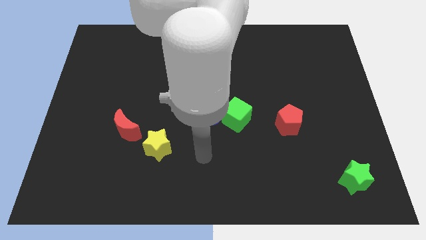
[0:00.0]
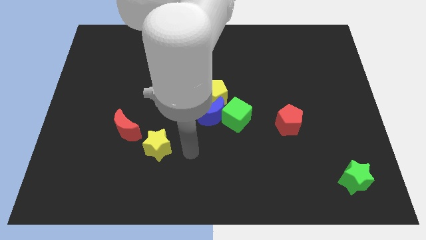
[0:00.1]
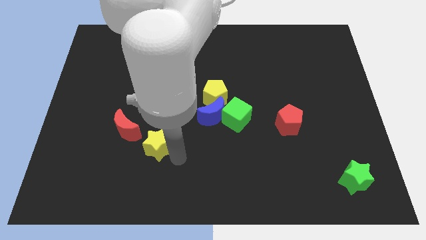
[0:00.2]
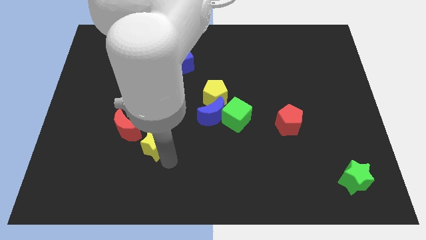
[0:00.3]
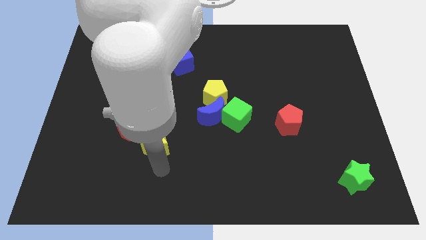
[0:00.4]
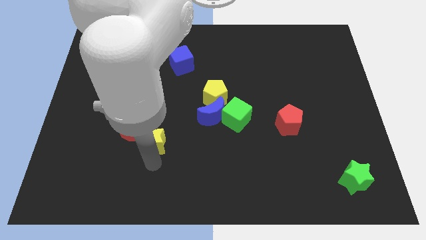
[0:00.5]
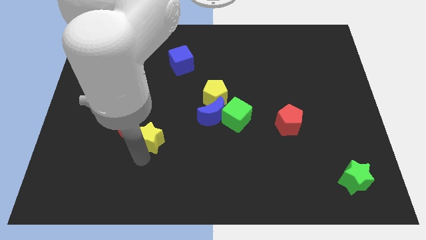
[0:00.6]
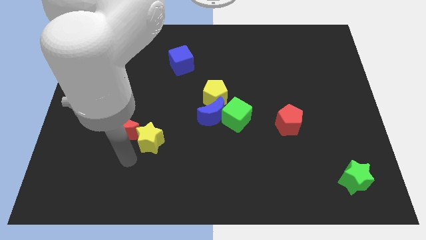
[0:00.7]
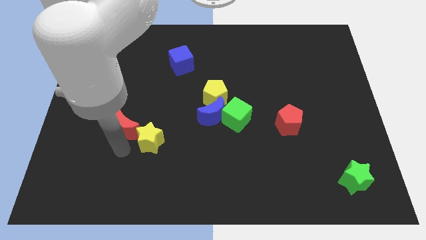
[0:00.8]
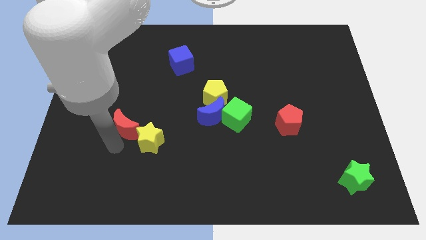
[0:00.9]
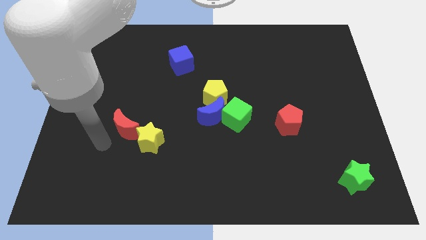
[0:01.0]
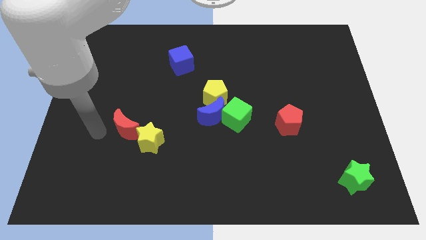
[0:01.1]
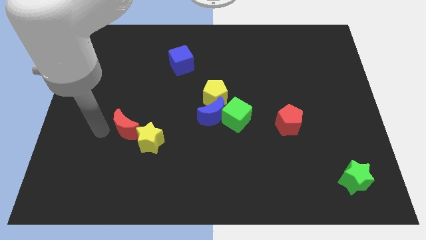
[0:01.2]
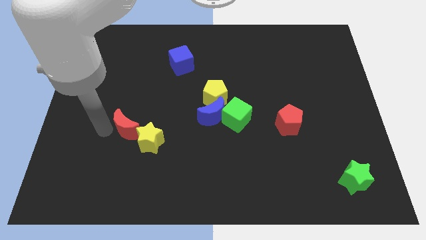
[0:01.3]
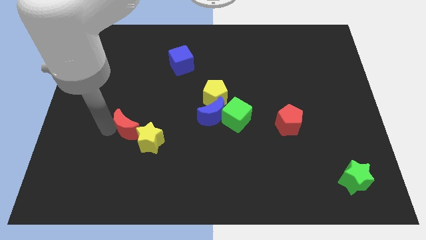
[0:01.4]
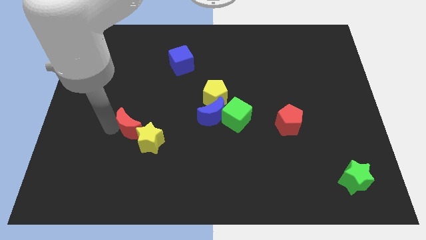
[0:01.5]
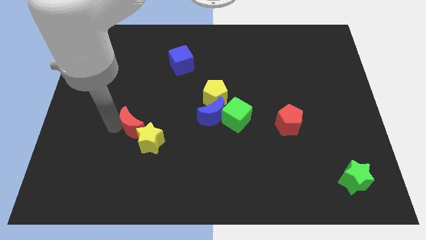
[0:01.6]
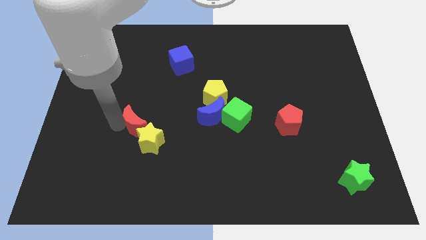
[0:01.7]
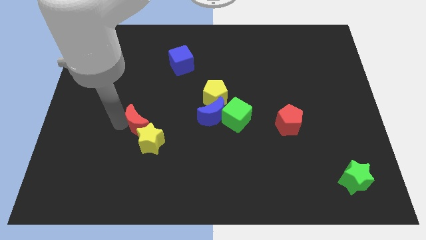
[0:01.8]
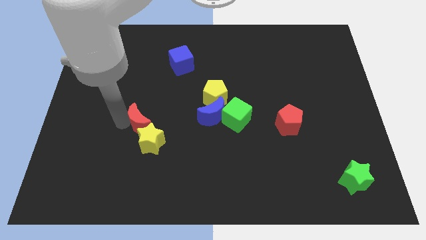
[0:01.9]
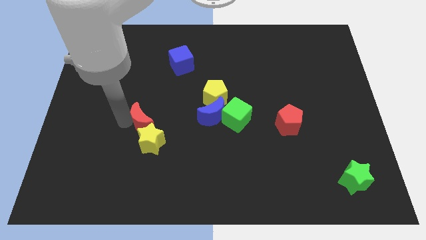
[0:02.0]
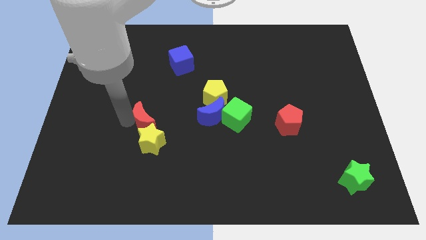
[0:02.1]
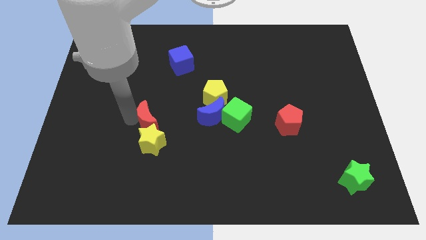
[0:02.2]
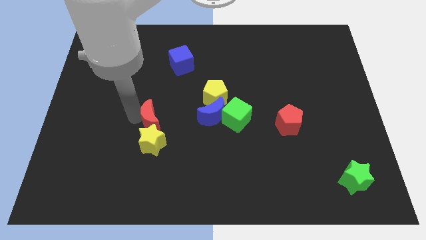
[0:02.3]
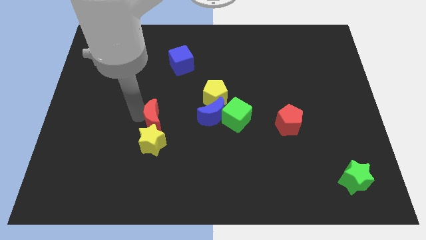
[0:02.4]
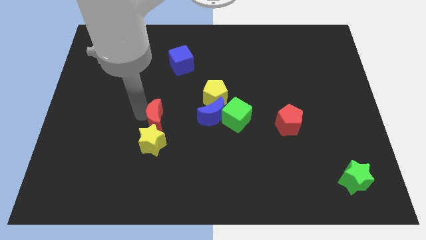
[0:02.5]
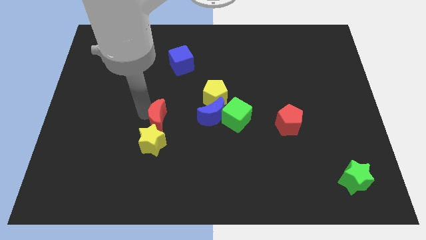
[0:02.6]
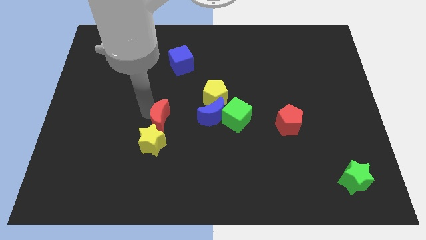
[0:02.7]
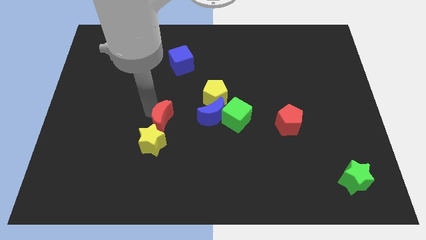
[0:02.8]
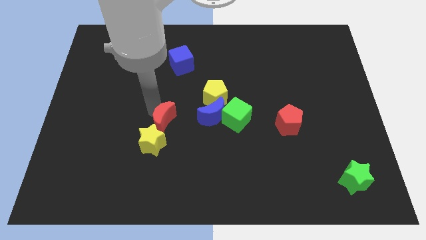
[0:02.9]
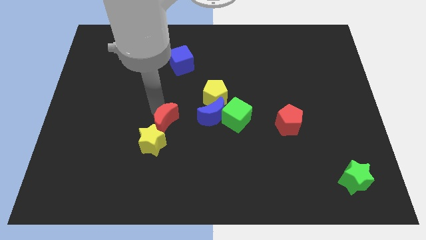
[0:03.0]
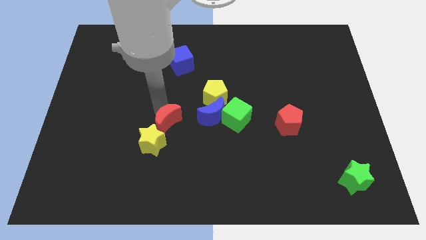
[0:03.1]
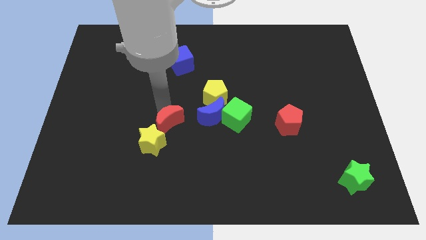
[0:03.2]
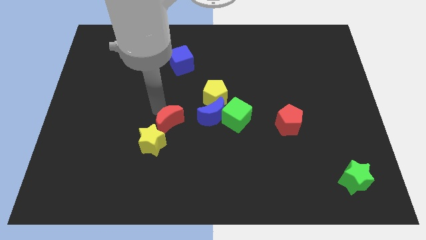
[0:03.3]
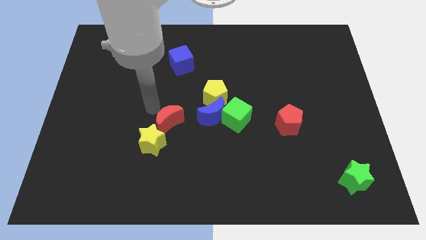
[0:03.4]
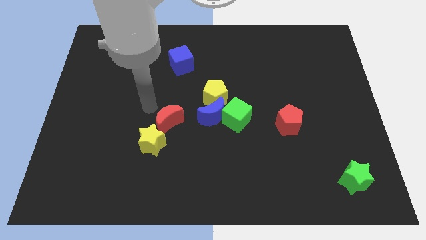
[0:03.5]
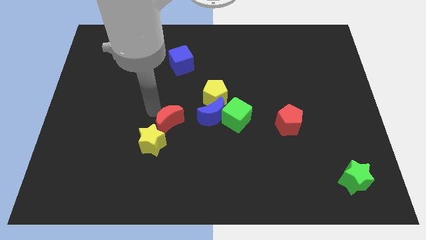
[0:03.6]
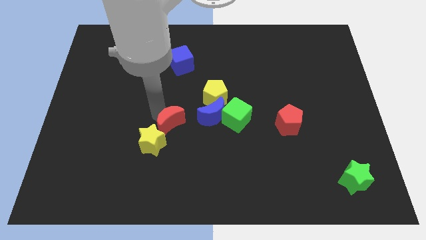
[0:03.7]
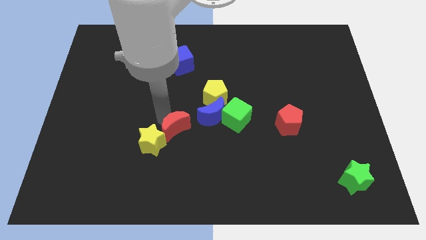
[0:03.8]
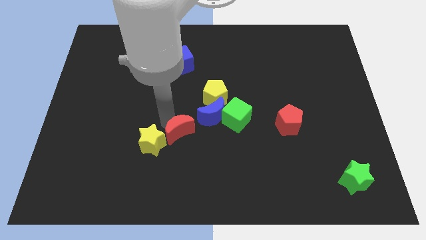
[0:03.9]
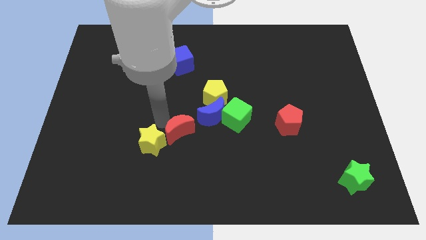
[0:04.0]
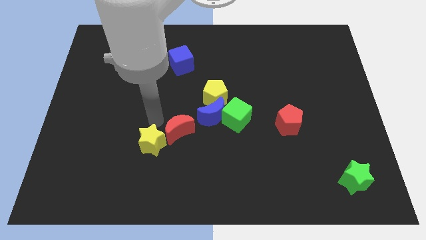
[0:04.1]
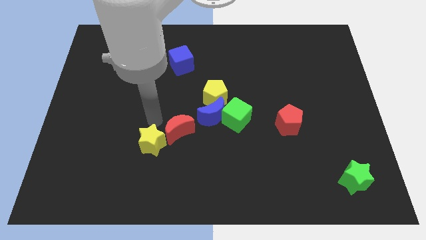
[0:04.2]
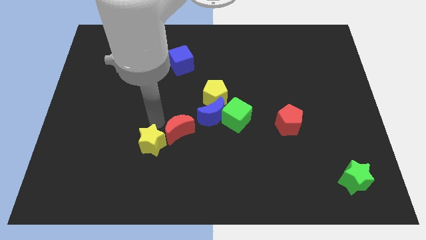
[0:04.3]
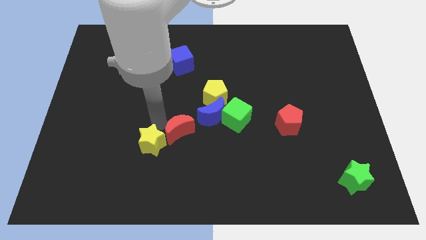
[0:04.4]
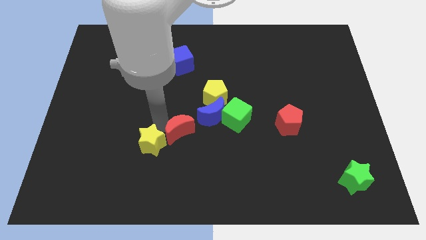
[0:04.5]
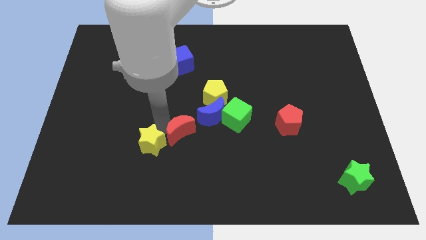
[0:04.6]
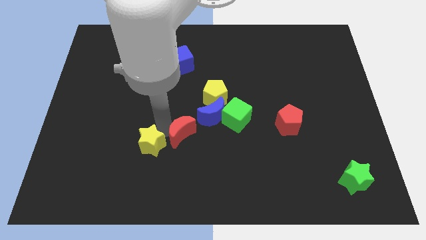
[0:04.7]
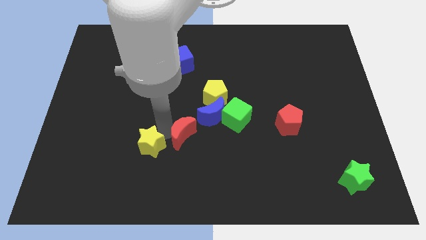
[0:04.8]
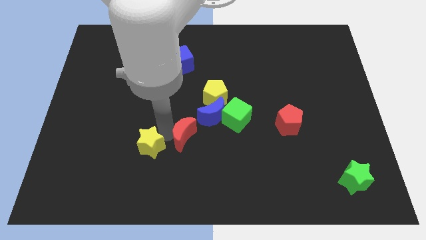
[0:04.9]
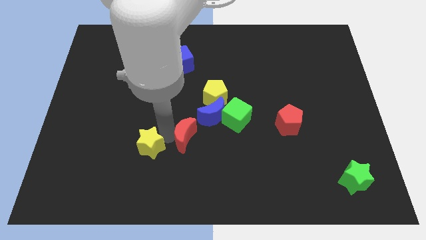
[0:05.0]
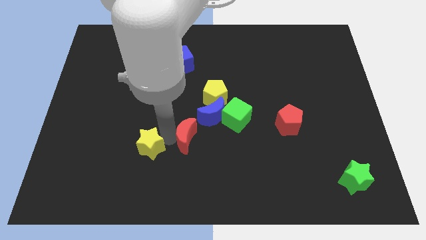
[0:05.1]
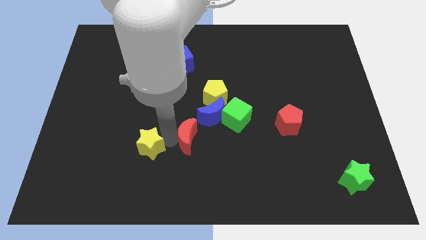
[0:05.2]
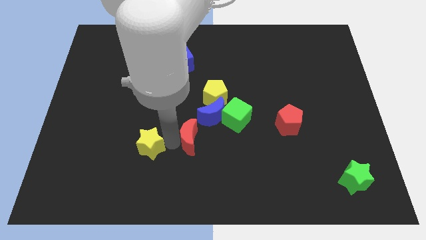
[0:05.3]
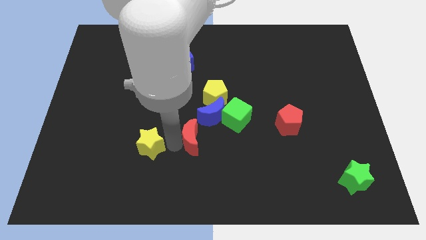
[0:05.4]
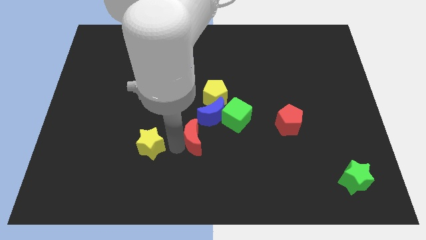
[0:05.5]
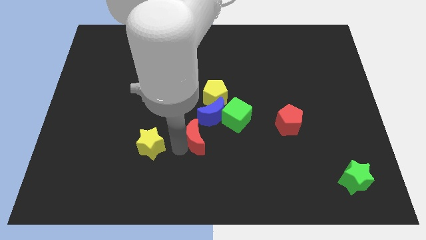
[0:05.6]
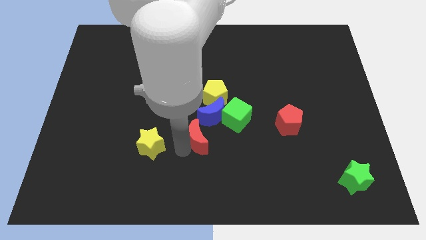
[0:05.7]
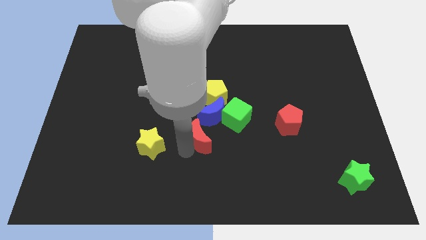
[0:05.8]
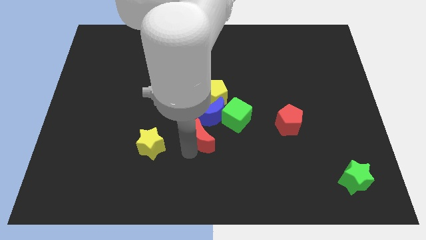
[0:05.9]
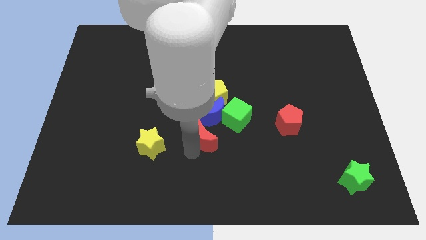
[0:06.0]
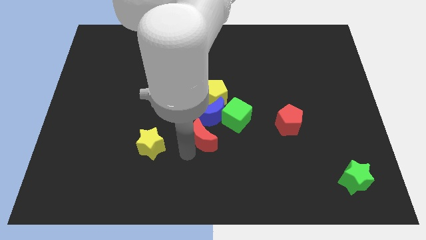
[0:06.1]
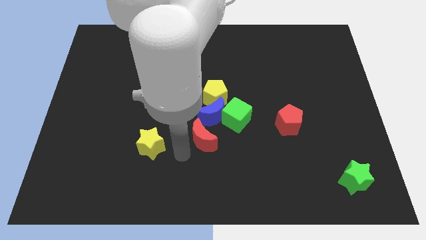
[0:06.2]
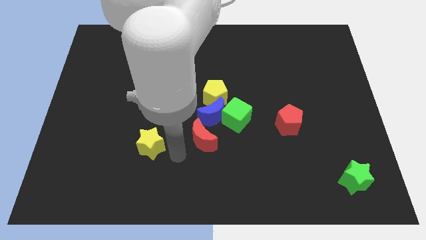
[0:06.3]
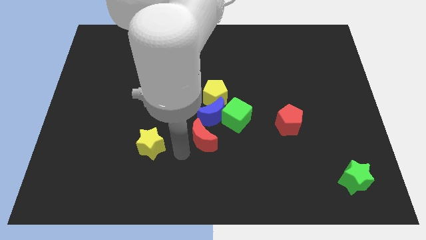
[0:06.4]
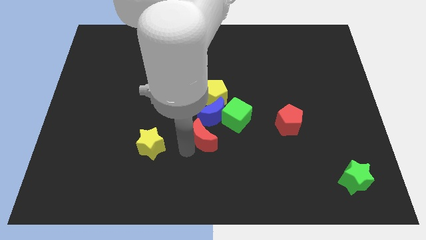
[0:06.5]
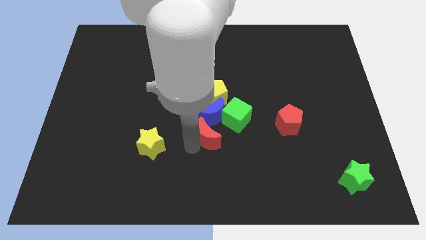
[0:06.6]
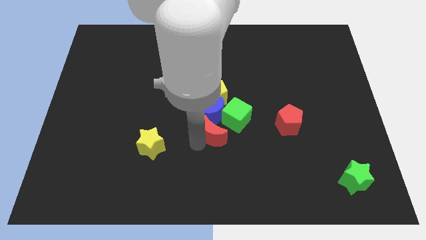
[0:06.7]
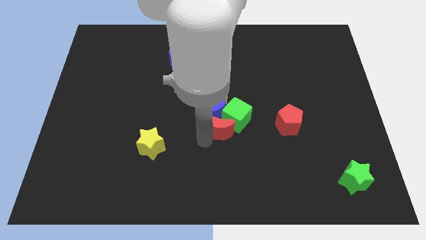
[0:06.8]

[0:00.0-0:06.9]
put the red moon towards the green cube
